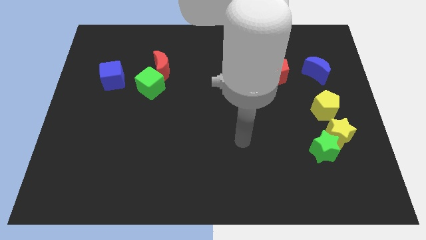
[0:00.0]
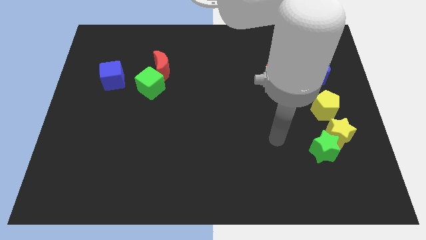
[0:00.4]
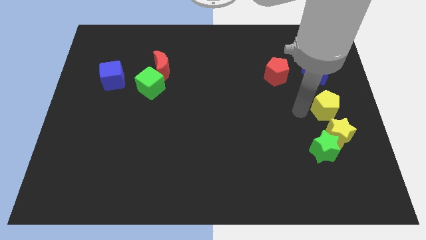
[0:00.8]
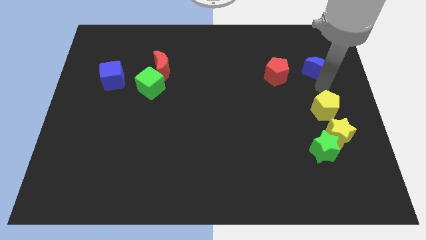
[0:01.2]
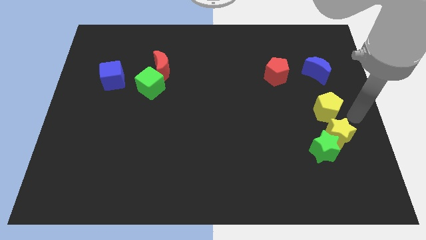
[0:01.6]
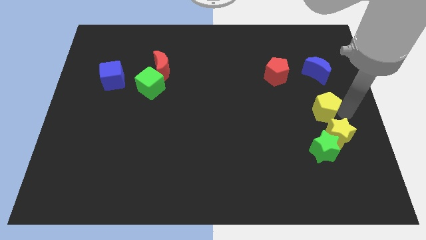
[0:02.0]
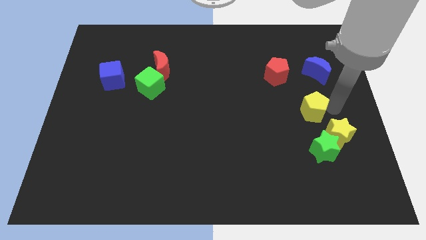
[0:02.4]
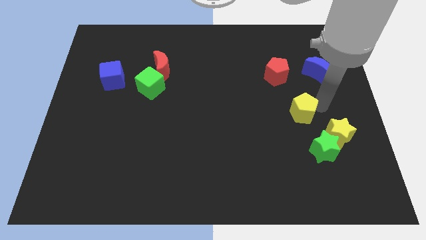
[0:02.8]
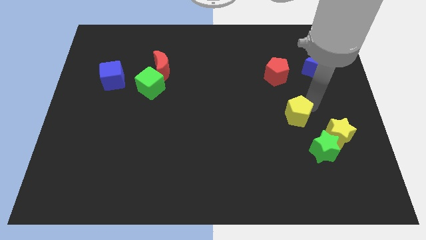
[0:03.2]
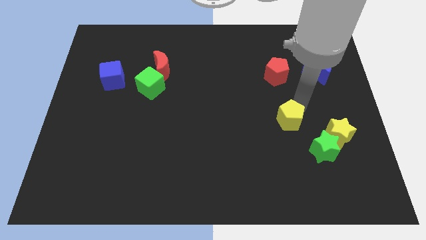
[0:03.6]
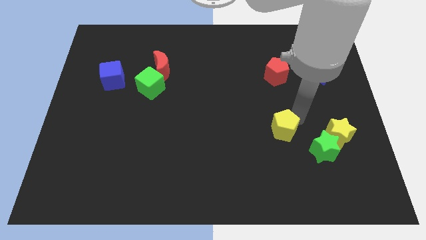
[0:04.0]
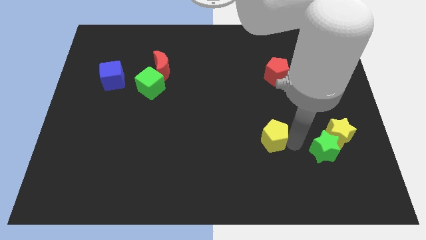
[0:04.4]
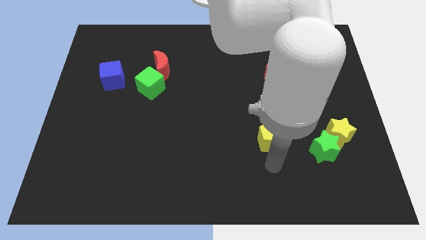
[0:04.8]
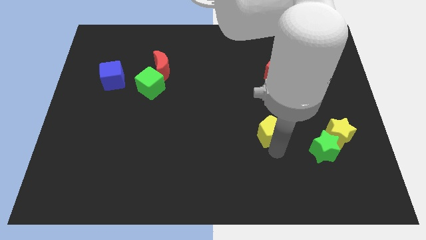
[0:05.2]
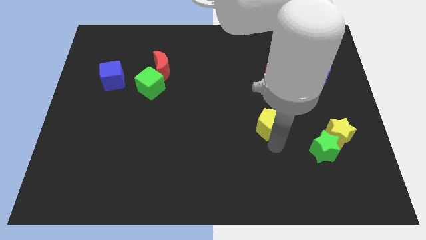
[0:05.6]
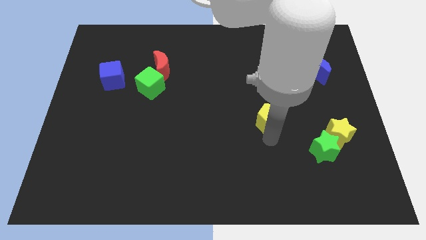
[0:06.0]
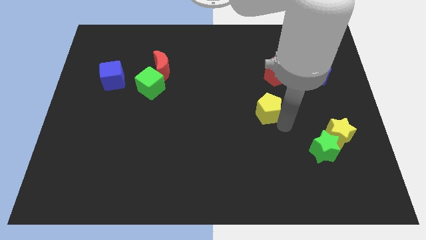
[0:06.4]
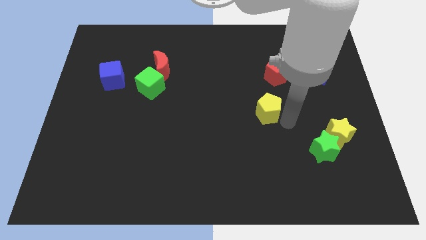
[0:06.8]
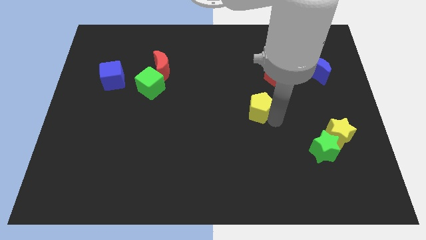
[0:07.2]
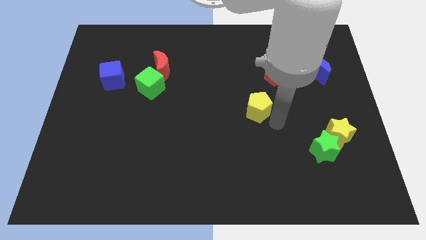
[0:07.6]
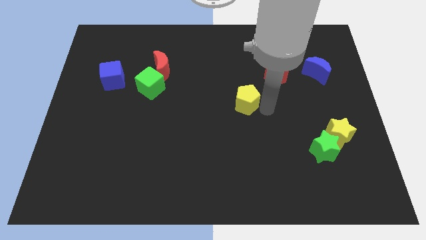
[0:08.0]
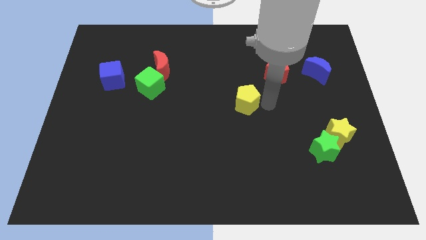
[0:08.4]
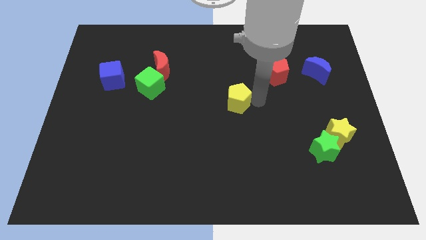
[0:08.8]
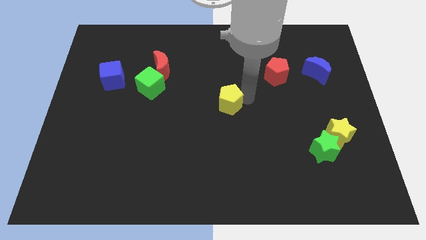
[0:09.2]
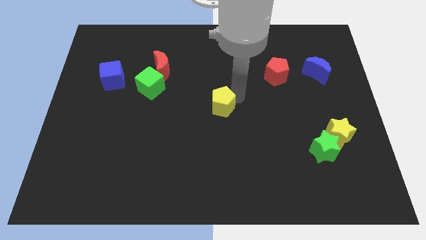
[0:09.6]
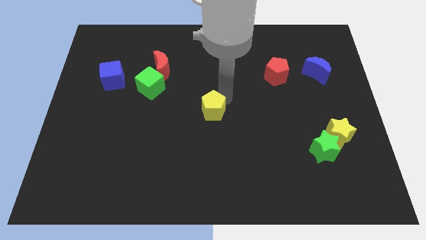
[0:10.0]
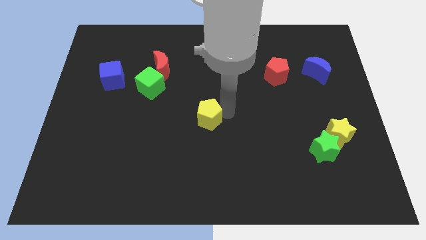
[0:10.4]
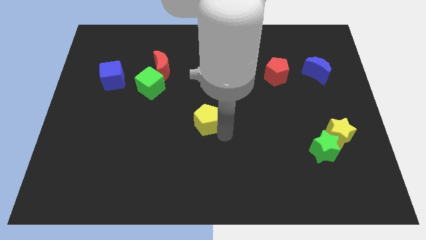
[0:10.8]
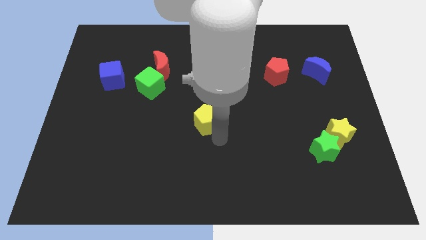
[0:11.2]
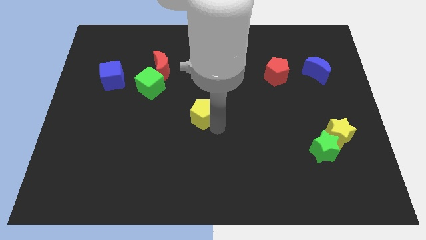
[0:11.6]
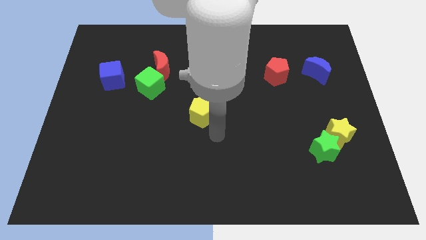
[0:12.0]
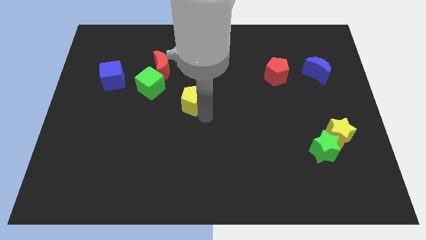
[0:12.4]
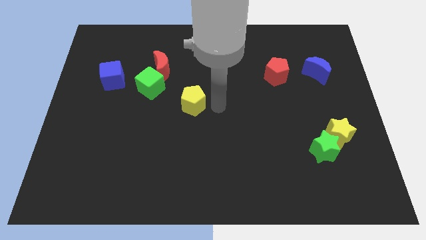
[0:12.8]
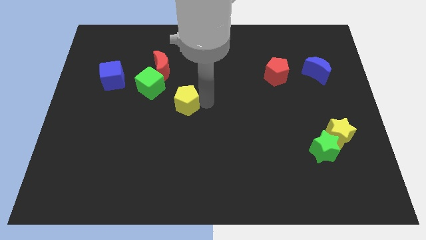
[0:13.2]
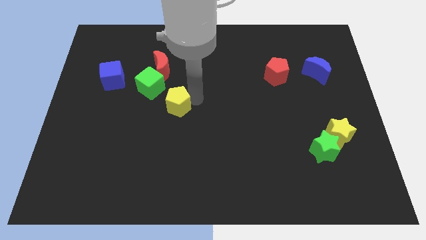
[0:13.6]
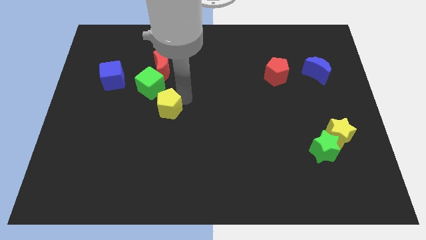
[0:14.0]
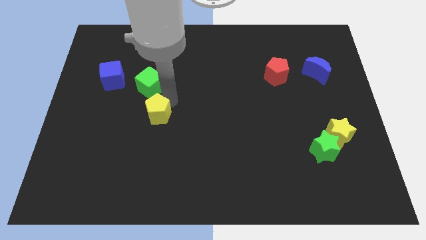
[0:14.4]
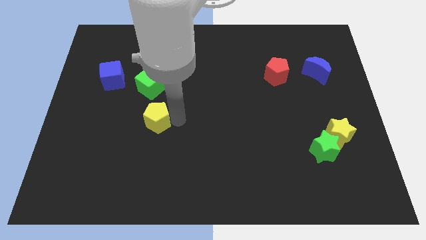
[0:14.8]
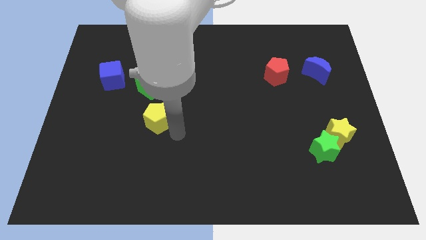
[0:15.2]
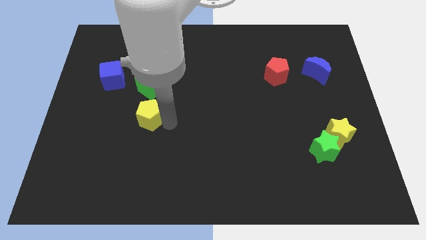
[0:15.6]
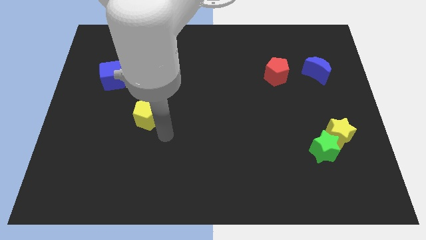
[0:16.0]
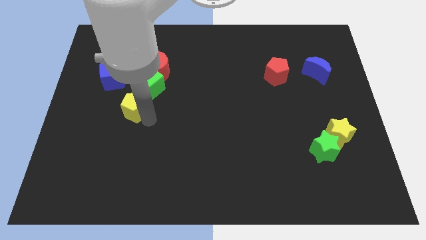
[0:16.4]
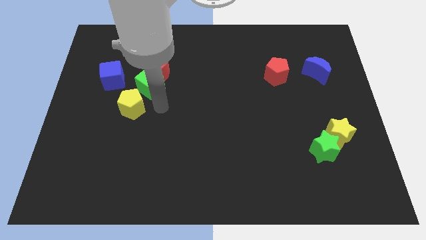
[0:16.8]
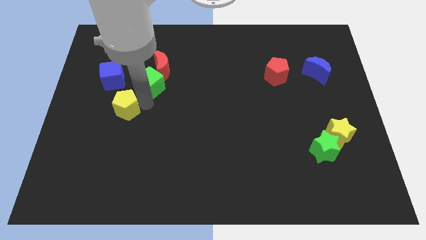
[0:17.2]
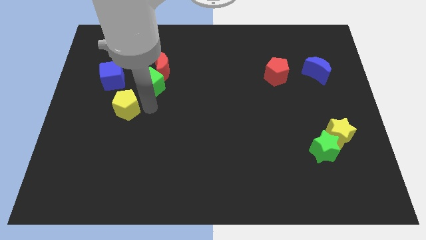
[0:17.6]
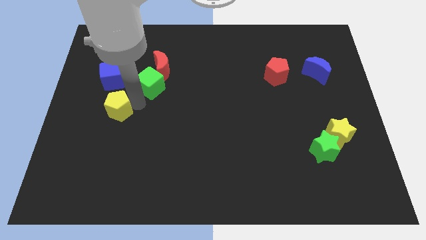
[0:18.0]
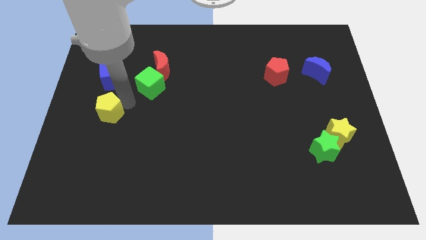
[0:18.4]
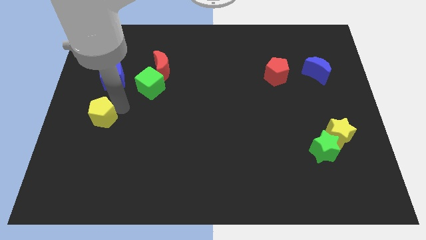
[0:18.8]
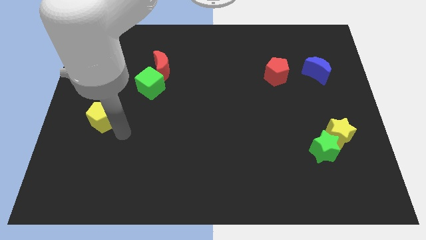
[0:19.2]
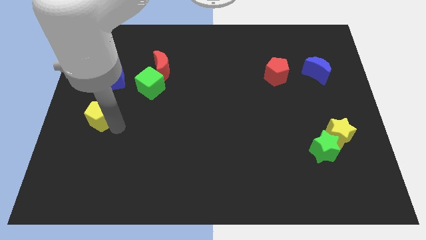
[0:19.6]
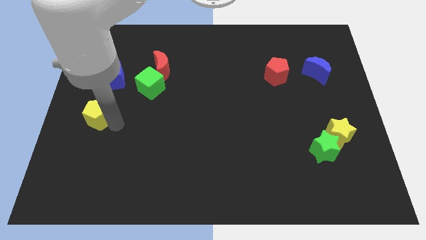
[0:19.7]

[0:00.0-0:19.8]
push the yellow pentagon to the center left

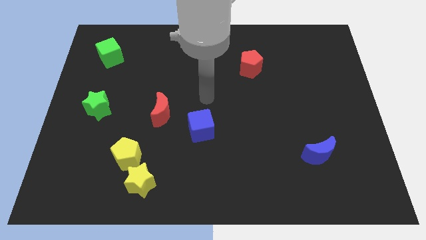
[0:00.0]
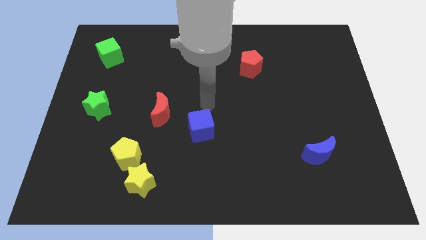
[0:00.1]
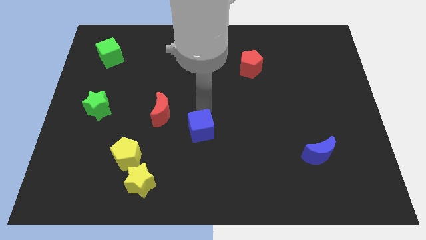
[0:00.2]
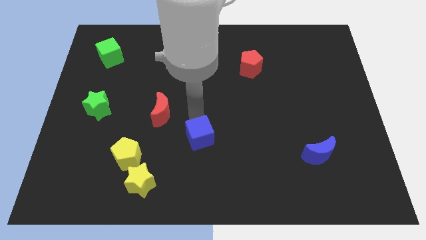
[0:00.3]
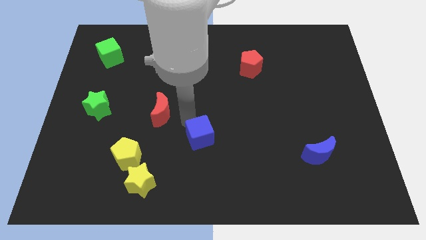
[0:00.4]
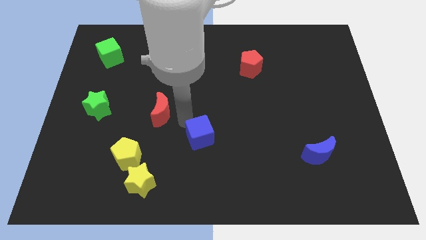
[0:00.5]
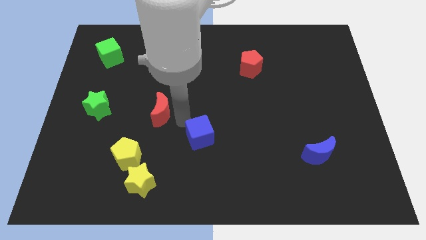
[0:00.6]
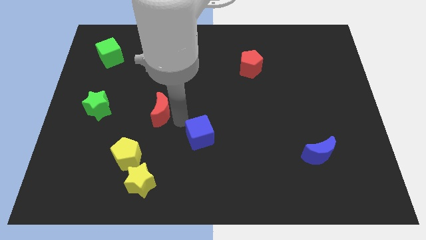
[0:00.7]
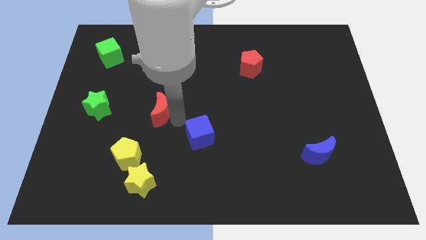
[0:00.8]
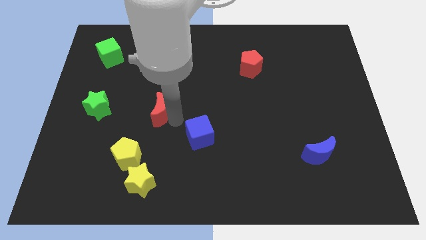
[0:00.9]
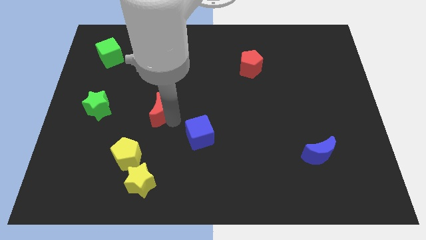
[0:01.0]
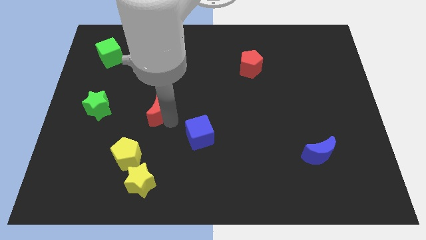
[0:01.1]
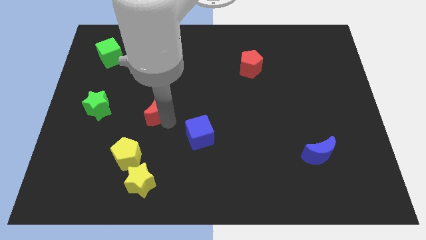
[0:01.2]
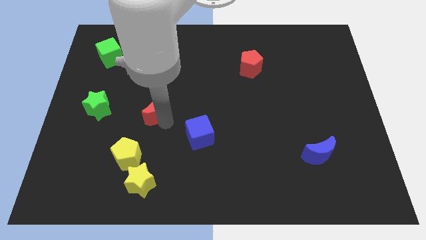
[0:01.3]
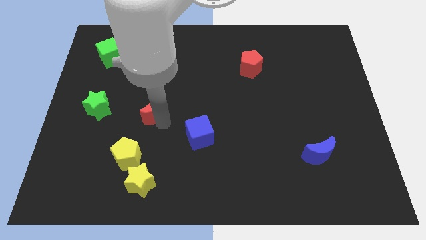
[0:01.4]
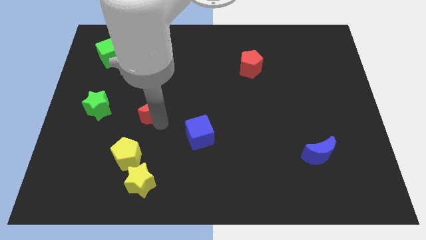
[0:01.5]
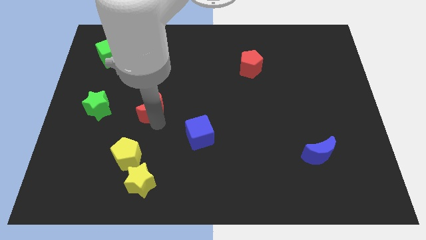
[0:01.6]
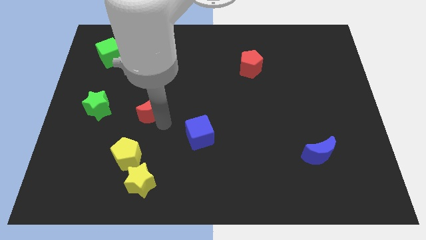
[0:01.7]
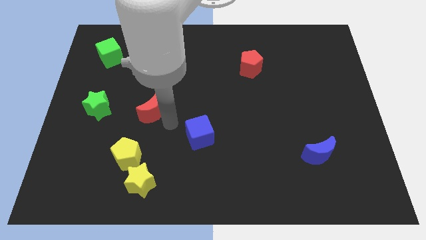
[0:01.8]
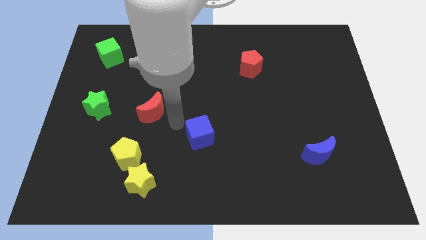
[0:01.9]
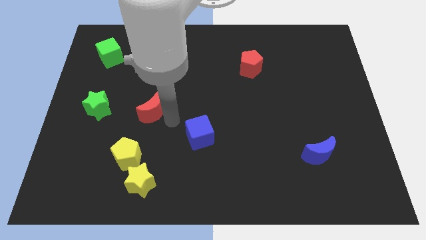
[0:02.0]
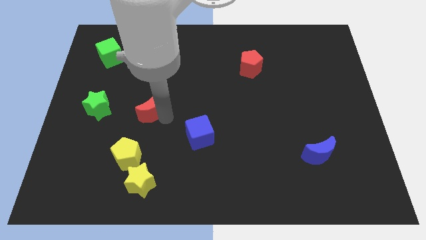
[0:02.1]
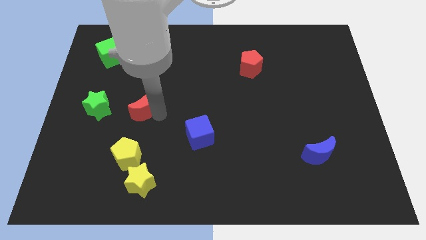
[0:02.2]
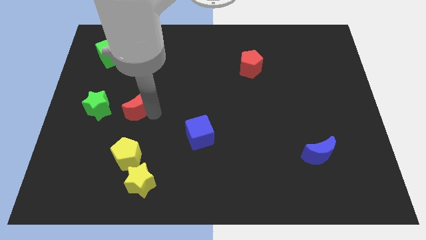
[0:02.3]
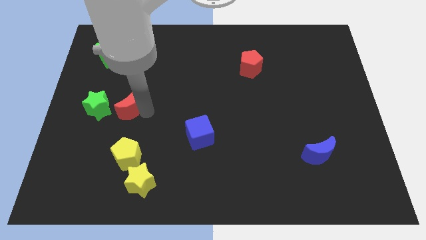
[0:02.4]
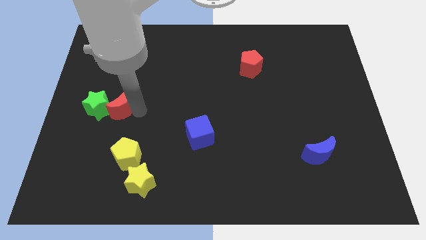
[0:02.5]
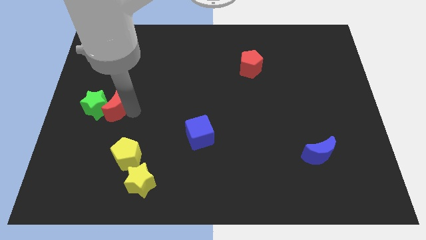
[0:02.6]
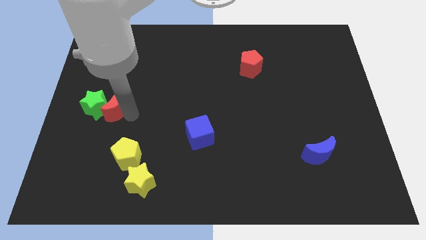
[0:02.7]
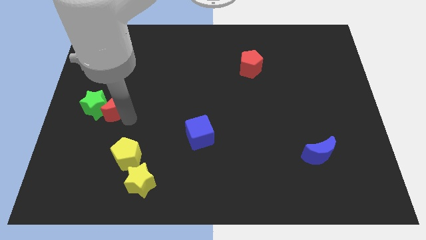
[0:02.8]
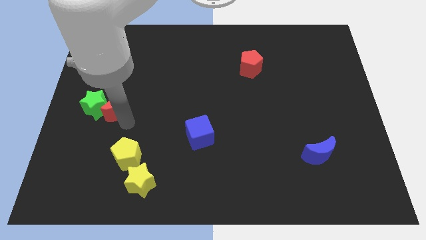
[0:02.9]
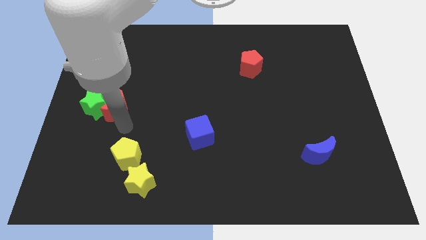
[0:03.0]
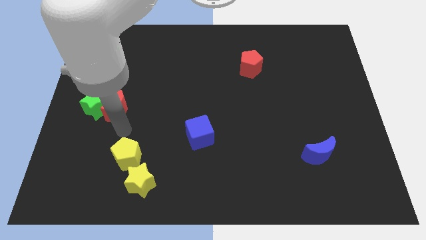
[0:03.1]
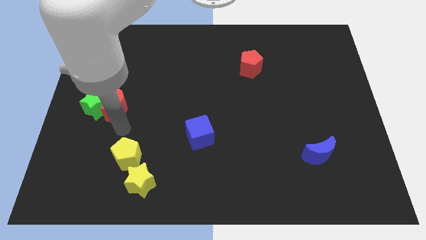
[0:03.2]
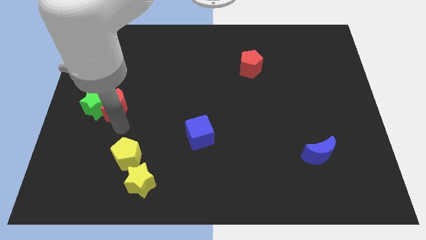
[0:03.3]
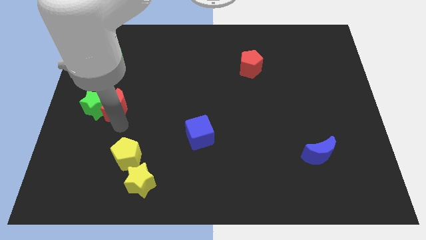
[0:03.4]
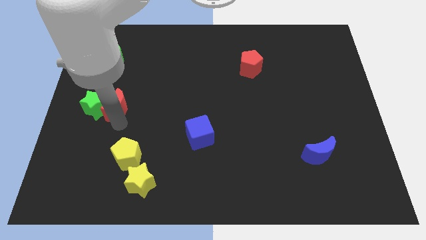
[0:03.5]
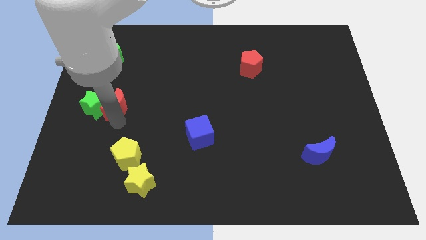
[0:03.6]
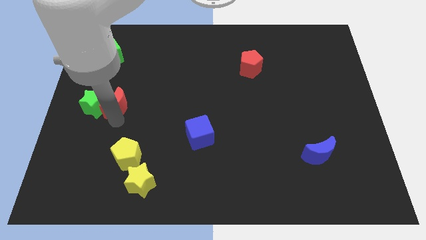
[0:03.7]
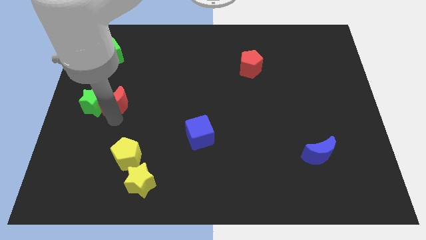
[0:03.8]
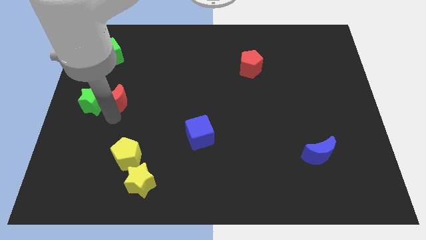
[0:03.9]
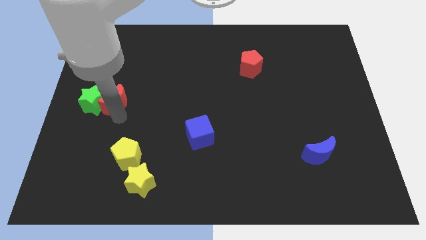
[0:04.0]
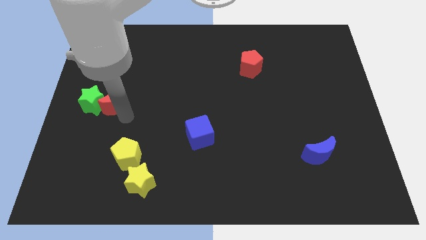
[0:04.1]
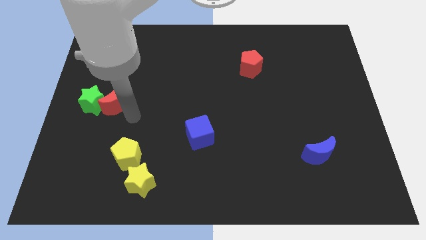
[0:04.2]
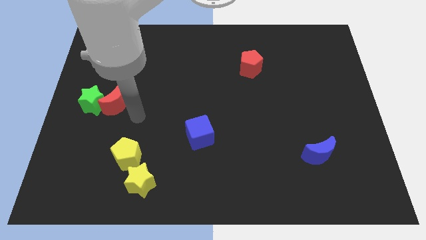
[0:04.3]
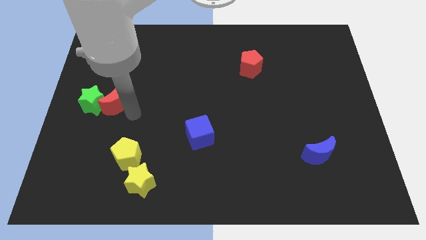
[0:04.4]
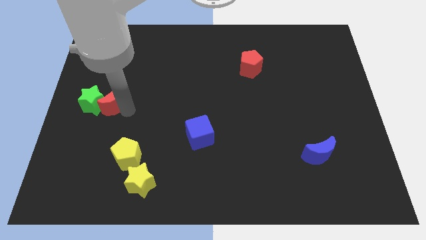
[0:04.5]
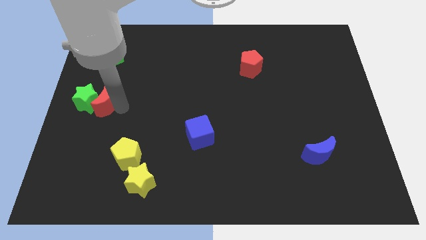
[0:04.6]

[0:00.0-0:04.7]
slide the red moon to the left side of the board
